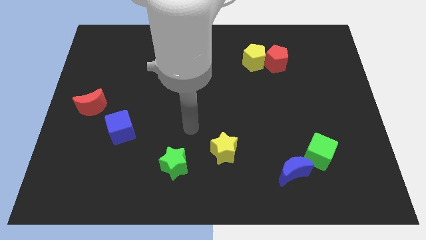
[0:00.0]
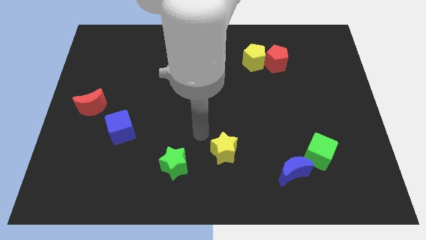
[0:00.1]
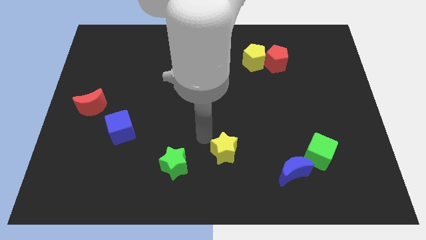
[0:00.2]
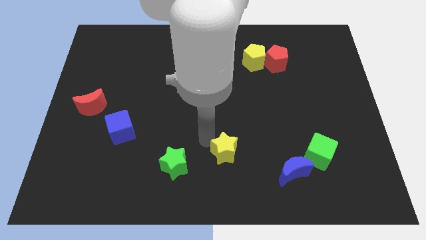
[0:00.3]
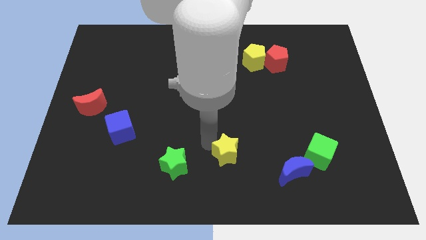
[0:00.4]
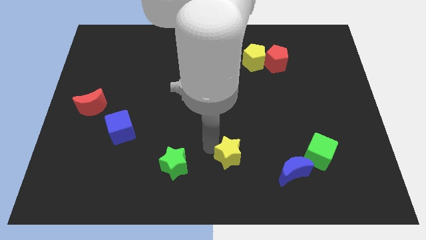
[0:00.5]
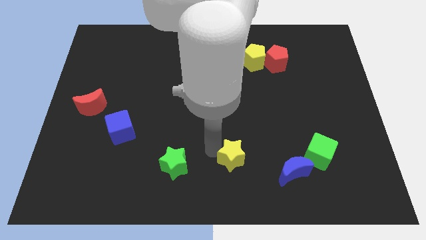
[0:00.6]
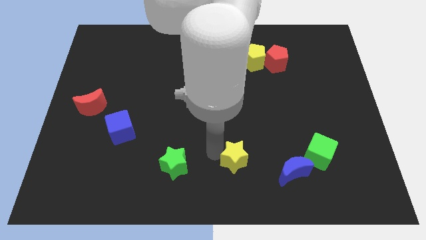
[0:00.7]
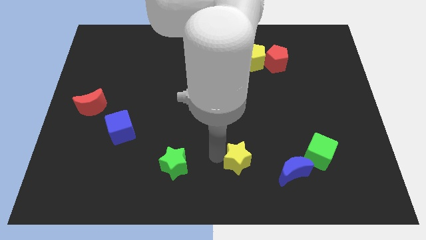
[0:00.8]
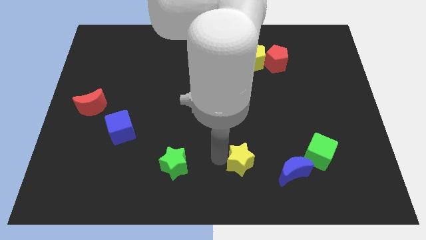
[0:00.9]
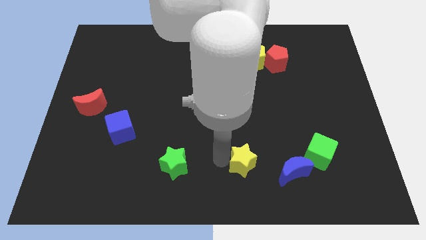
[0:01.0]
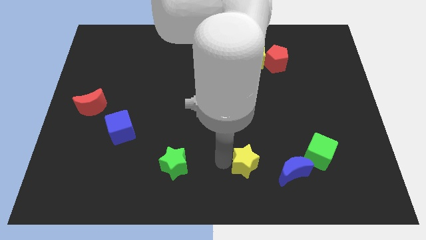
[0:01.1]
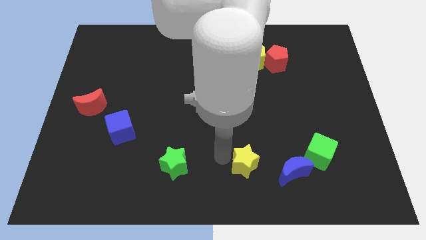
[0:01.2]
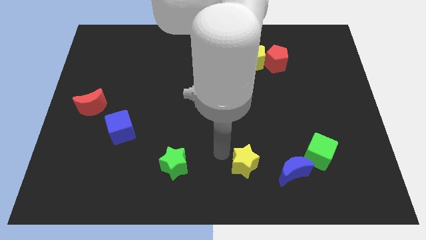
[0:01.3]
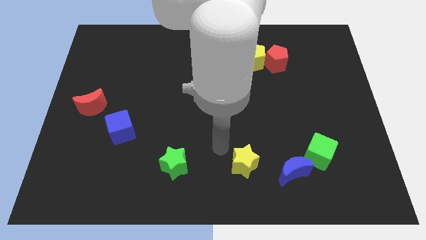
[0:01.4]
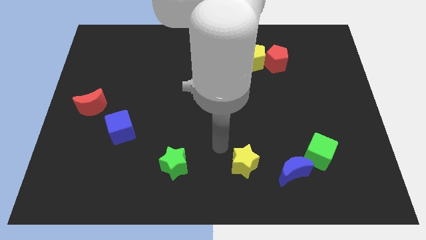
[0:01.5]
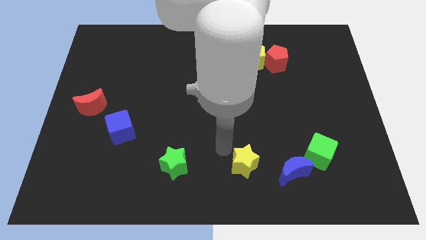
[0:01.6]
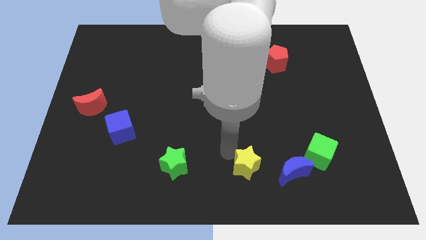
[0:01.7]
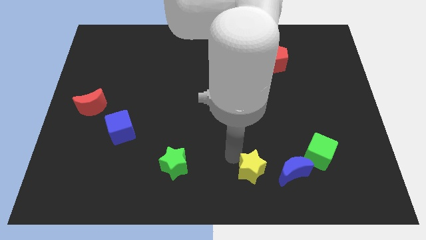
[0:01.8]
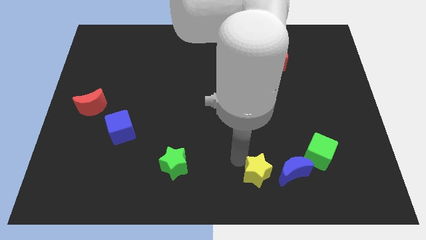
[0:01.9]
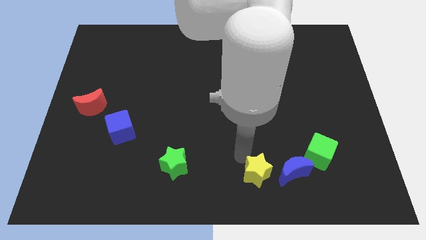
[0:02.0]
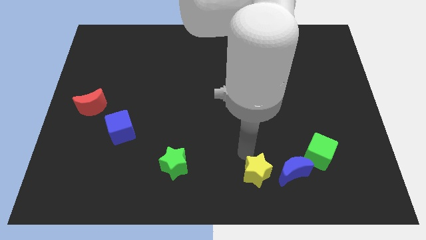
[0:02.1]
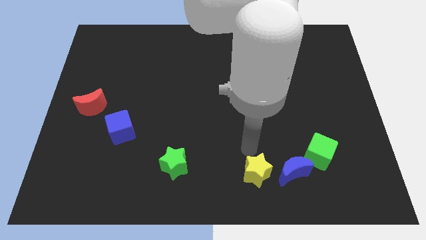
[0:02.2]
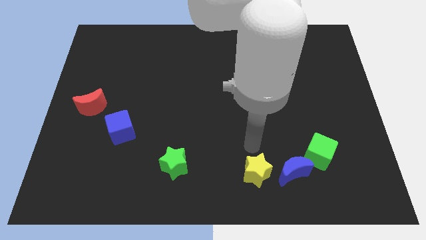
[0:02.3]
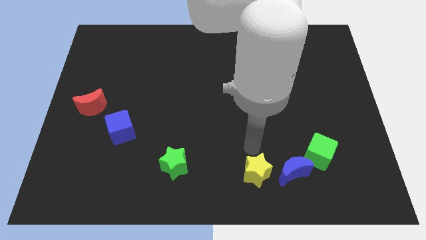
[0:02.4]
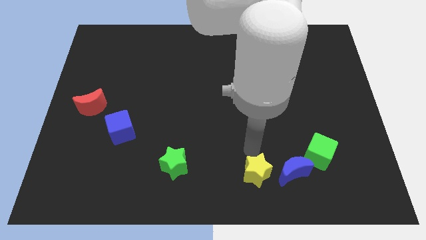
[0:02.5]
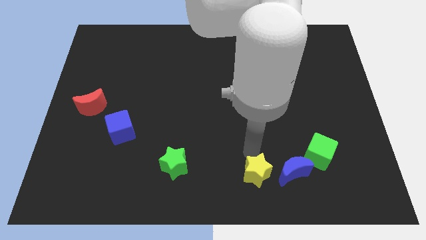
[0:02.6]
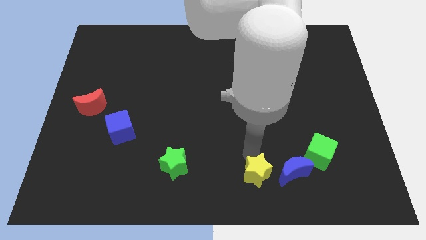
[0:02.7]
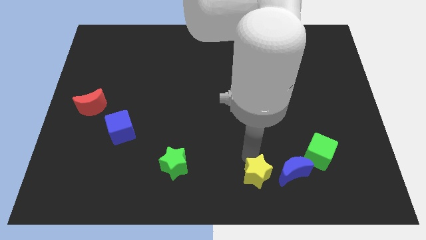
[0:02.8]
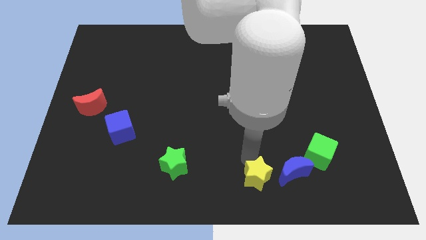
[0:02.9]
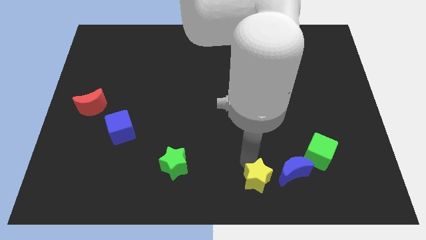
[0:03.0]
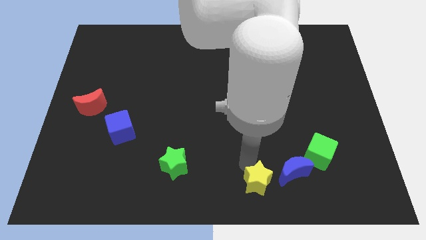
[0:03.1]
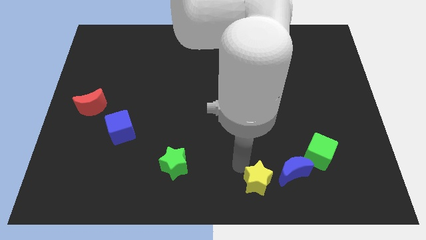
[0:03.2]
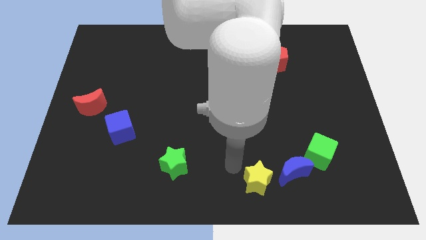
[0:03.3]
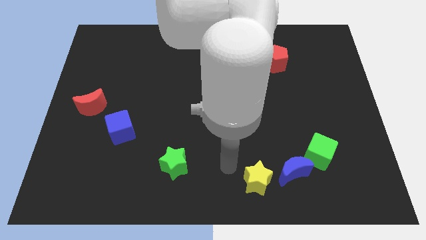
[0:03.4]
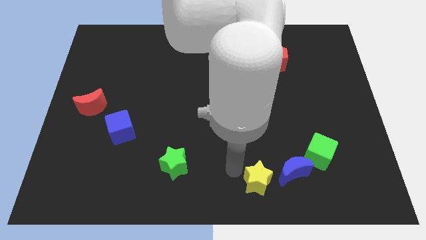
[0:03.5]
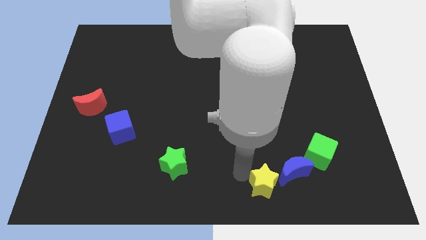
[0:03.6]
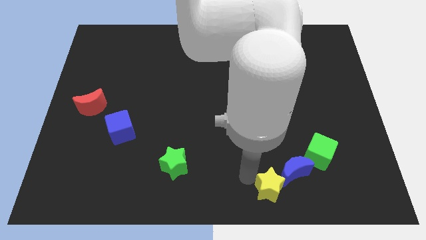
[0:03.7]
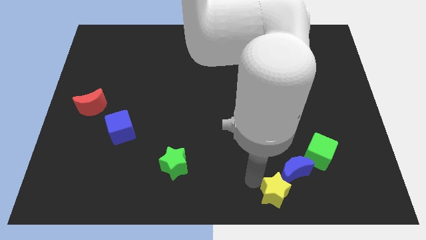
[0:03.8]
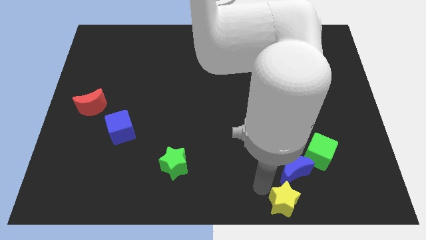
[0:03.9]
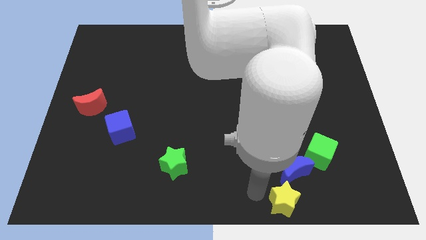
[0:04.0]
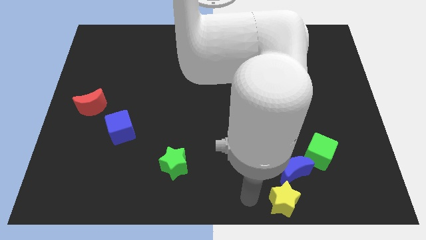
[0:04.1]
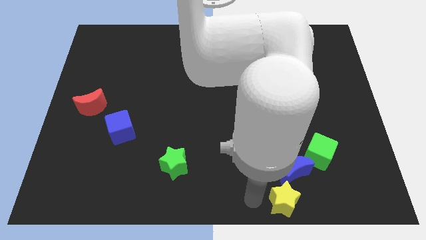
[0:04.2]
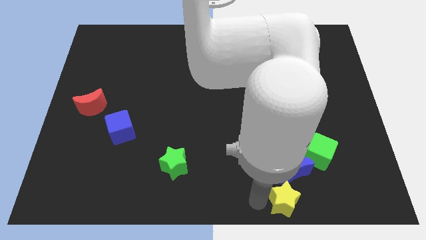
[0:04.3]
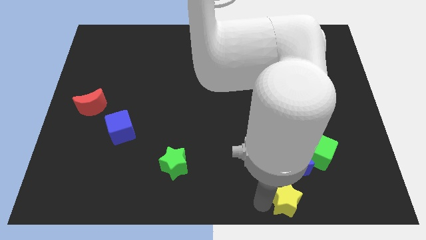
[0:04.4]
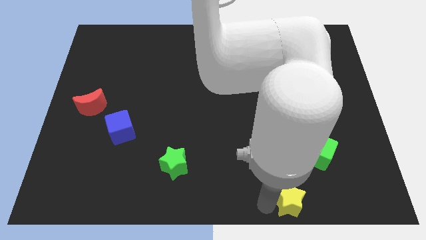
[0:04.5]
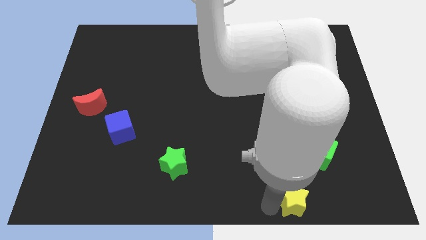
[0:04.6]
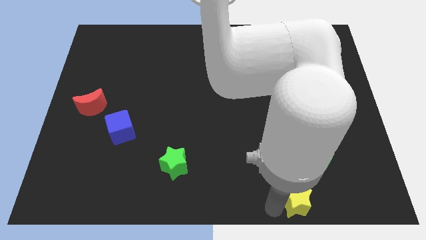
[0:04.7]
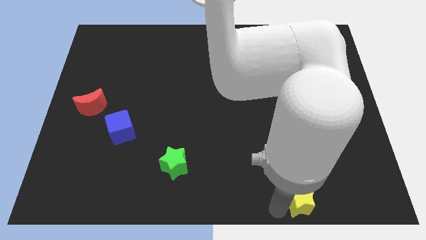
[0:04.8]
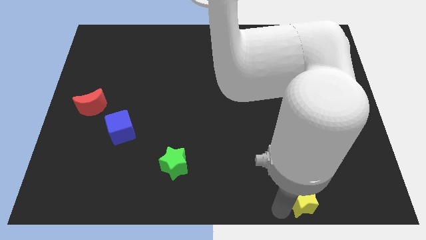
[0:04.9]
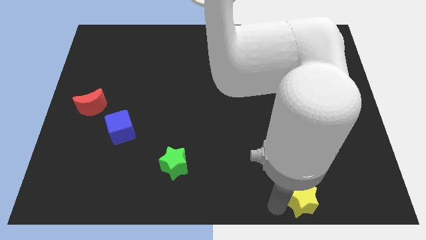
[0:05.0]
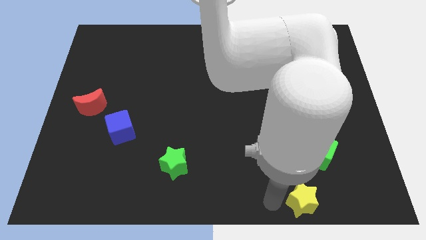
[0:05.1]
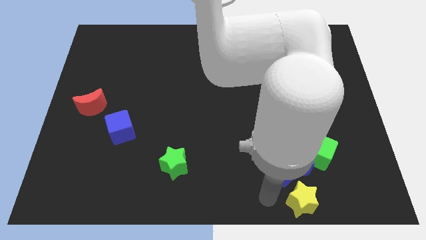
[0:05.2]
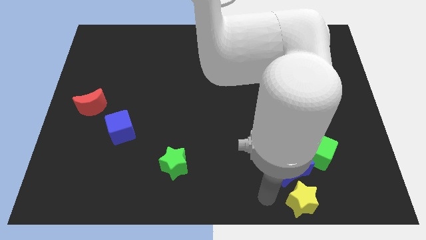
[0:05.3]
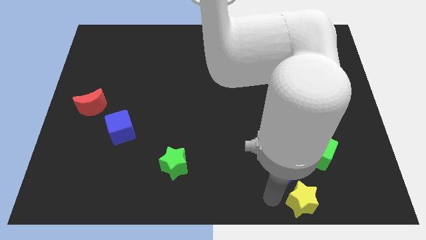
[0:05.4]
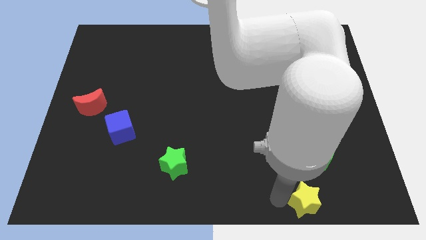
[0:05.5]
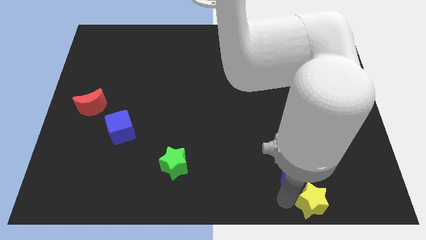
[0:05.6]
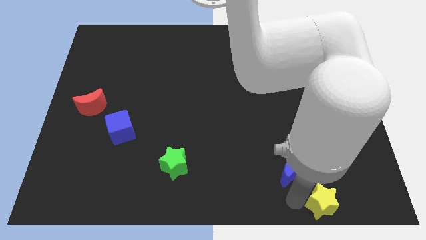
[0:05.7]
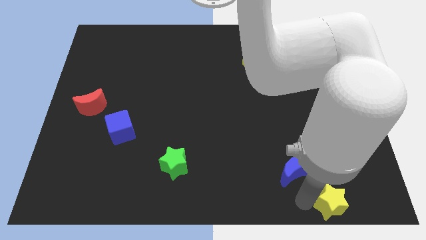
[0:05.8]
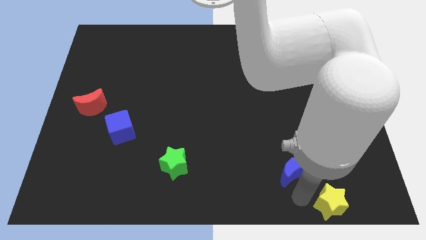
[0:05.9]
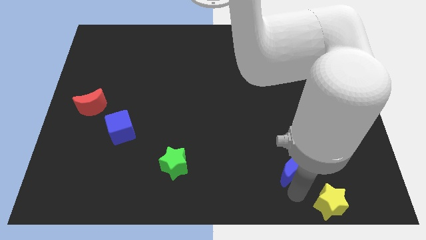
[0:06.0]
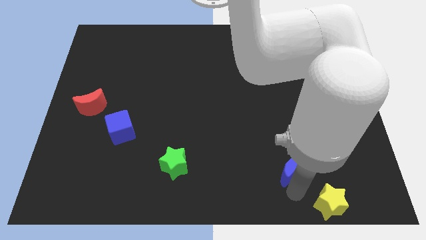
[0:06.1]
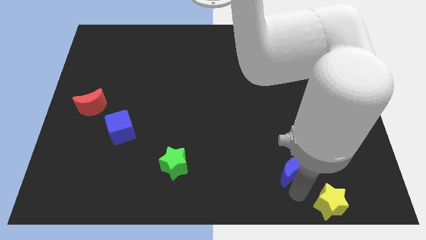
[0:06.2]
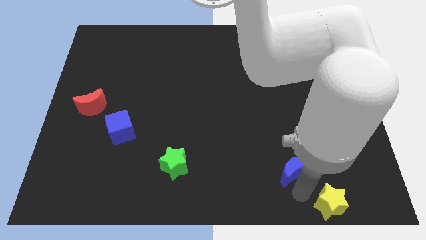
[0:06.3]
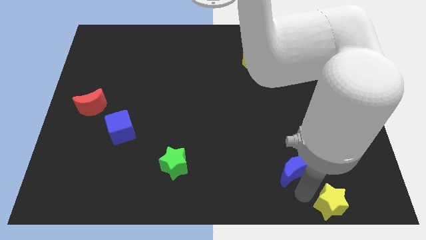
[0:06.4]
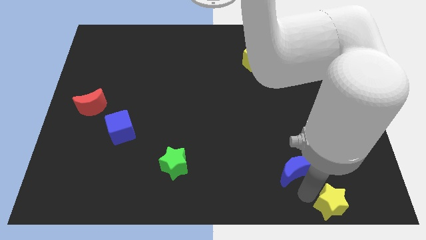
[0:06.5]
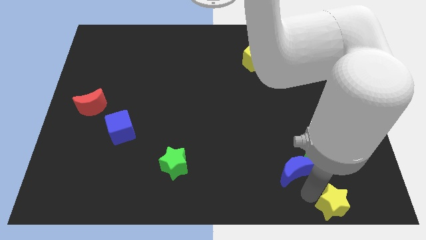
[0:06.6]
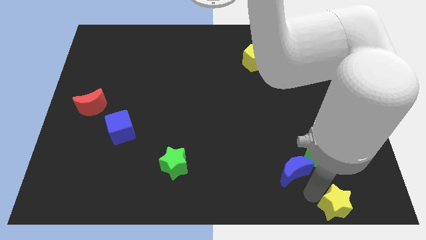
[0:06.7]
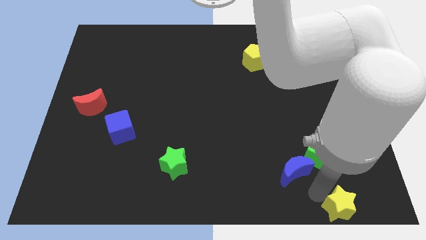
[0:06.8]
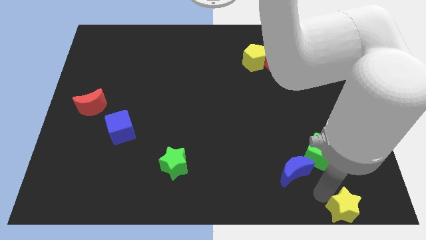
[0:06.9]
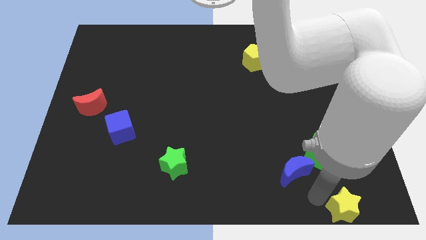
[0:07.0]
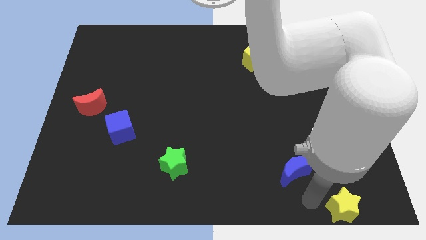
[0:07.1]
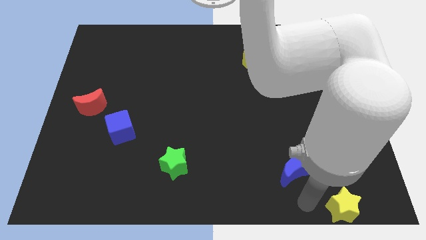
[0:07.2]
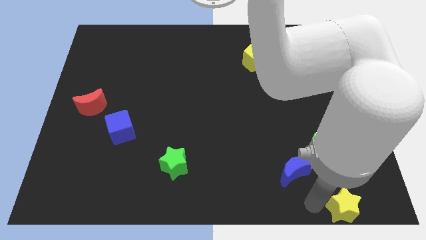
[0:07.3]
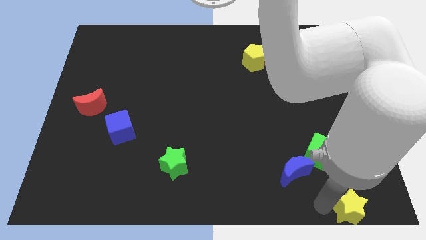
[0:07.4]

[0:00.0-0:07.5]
push the yellow star to the lower right corner
